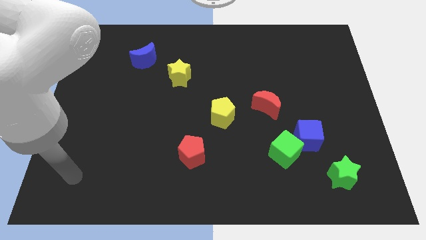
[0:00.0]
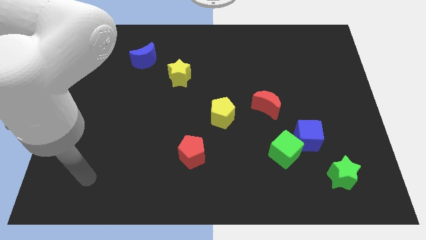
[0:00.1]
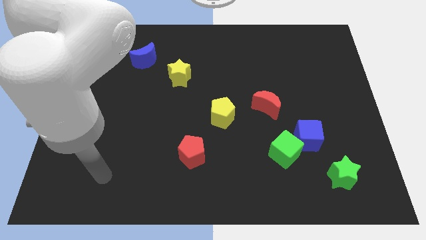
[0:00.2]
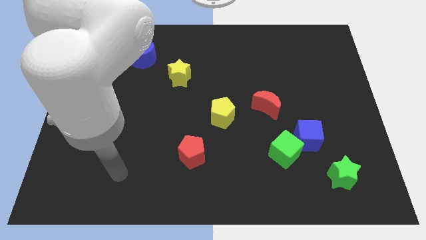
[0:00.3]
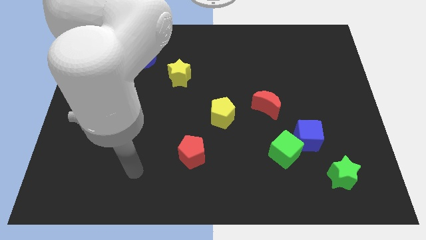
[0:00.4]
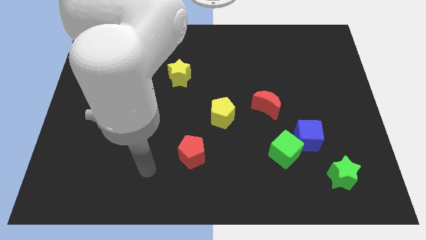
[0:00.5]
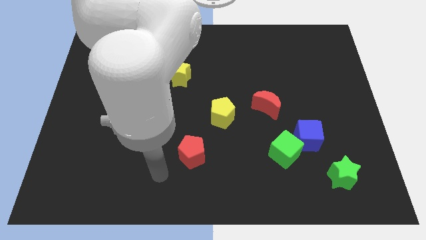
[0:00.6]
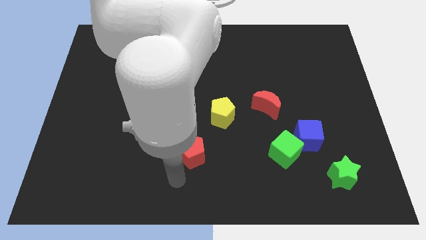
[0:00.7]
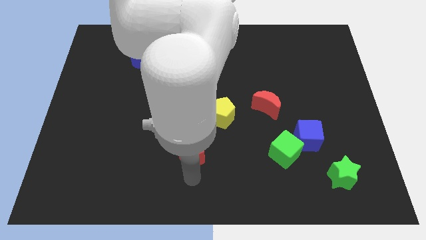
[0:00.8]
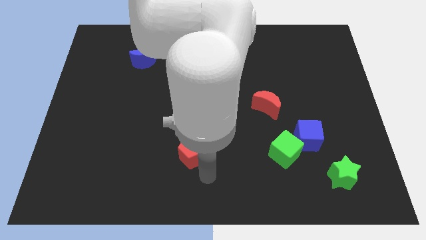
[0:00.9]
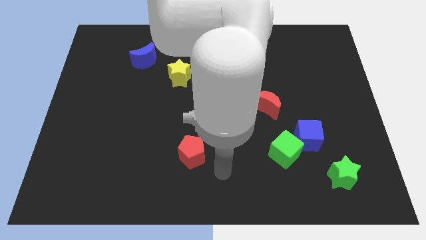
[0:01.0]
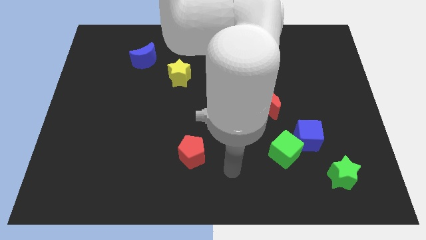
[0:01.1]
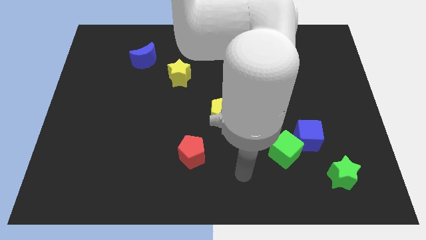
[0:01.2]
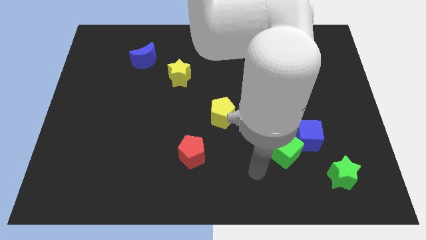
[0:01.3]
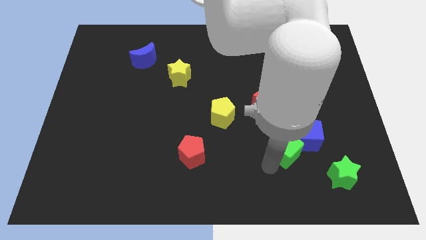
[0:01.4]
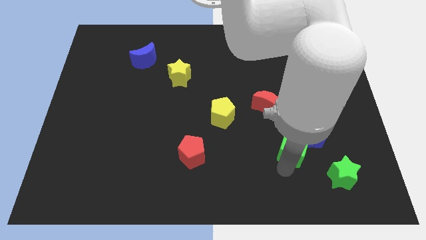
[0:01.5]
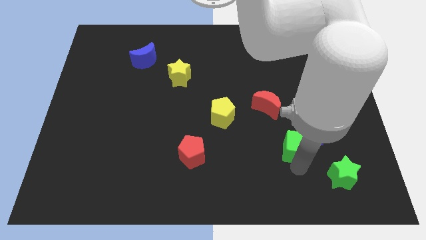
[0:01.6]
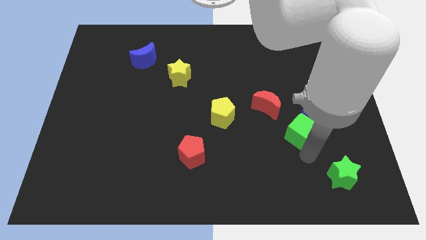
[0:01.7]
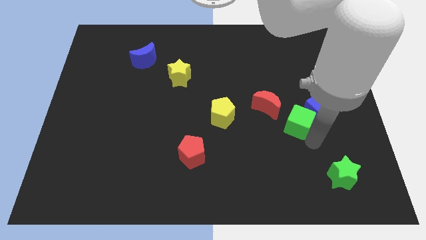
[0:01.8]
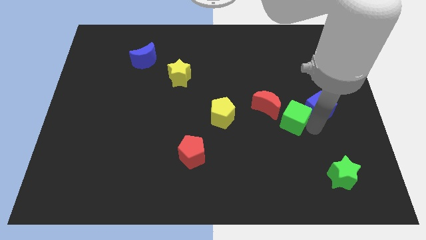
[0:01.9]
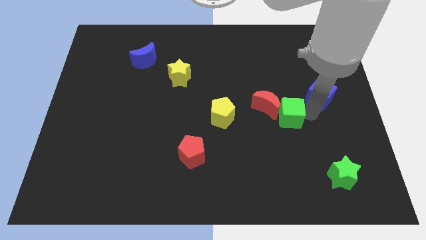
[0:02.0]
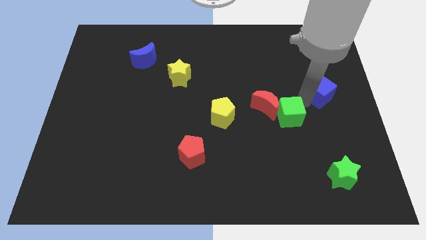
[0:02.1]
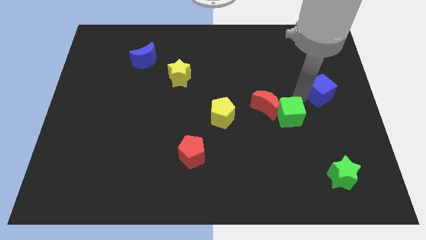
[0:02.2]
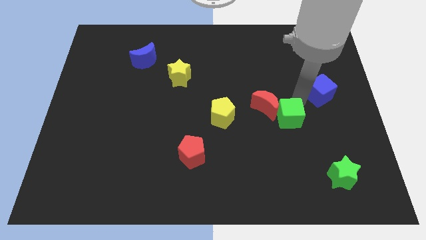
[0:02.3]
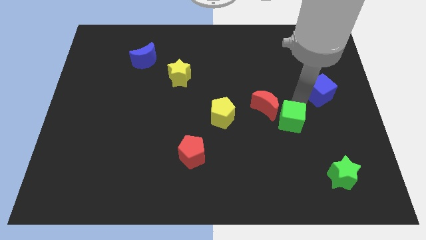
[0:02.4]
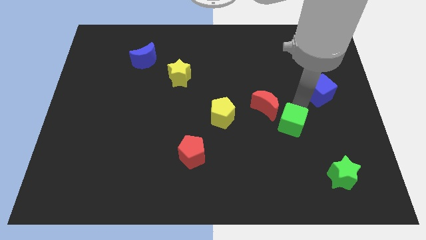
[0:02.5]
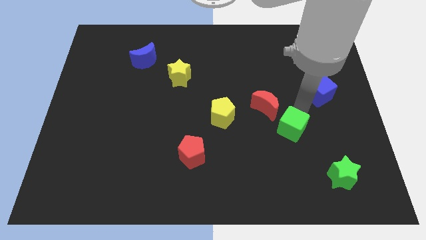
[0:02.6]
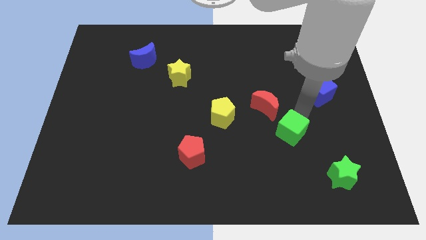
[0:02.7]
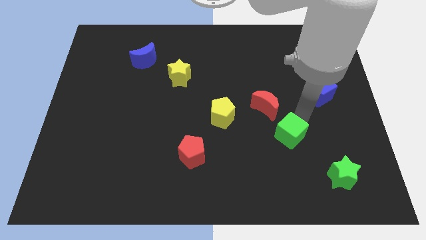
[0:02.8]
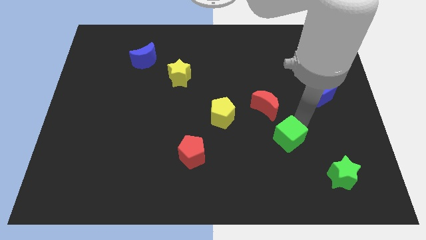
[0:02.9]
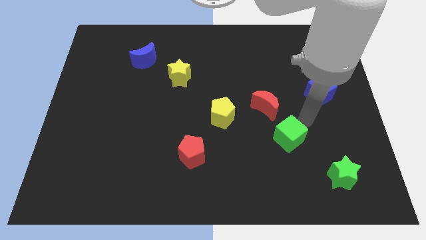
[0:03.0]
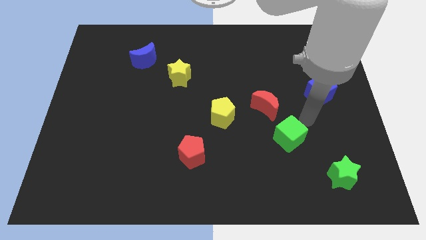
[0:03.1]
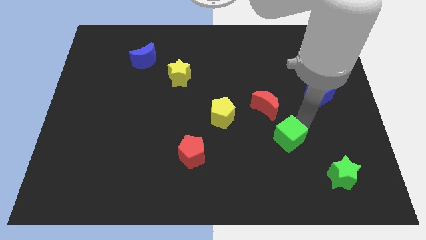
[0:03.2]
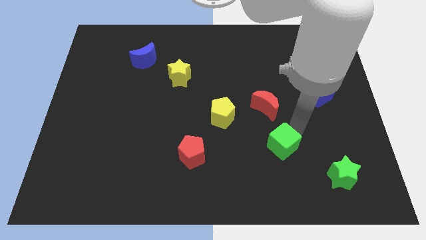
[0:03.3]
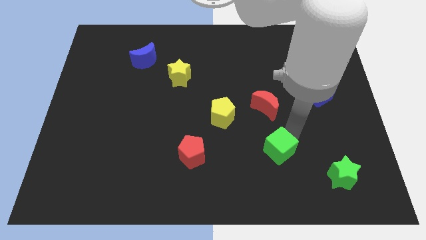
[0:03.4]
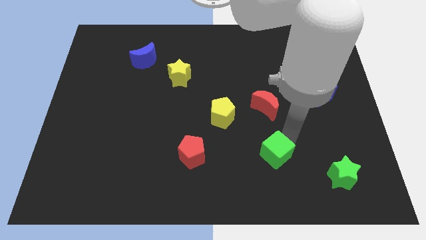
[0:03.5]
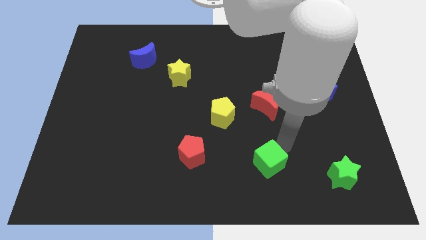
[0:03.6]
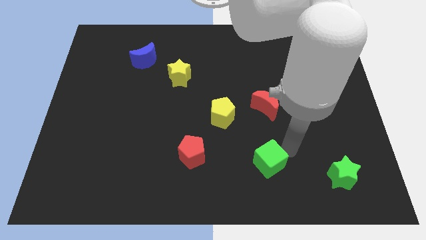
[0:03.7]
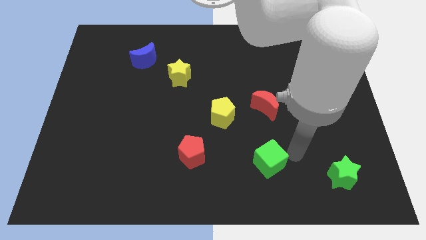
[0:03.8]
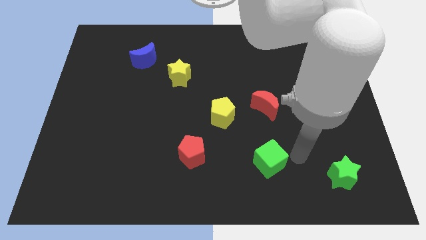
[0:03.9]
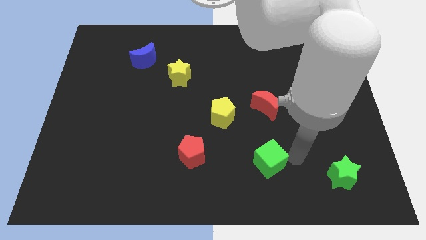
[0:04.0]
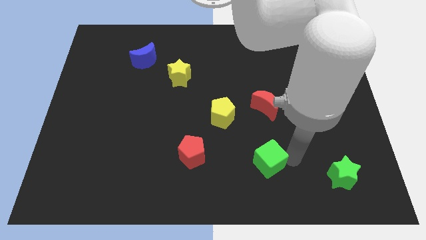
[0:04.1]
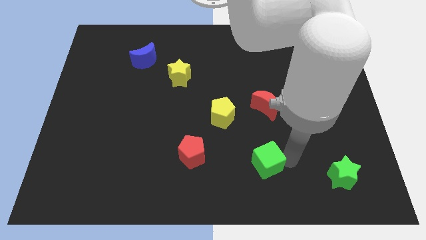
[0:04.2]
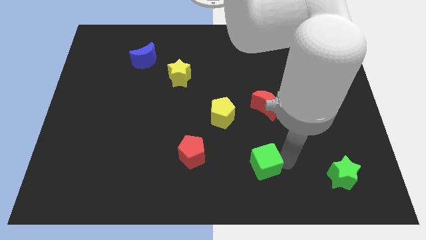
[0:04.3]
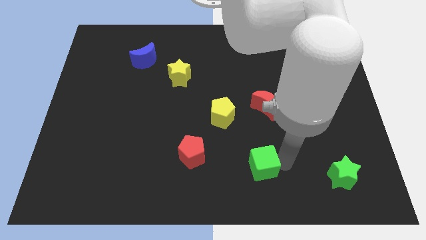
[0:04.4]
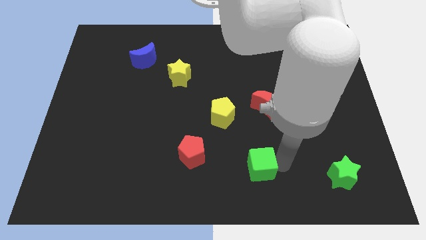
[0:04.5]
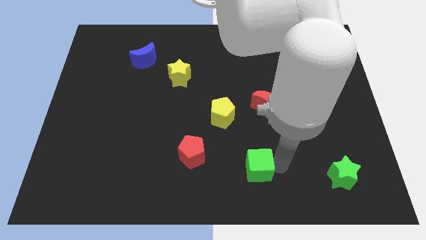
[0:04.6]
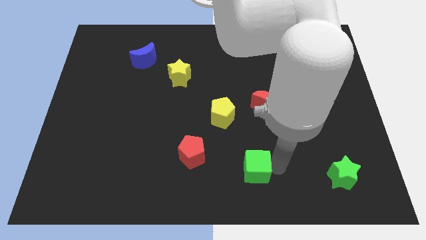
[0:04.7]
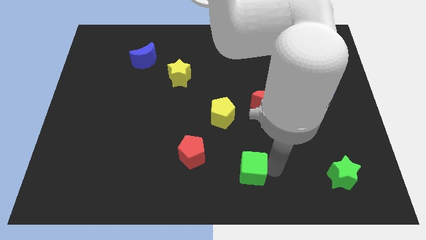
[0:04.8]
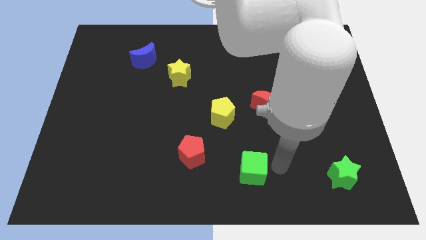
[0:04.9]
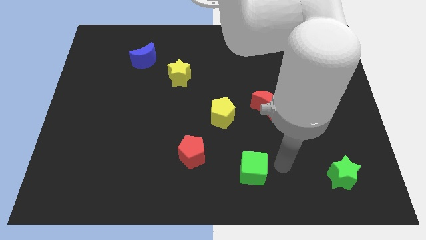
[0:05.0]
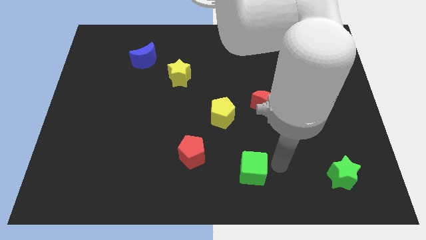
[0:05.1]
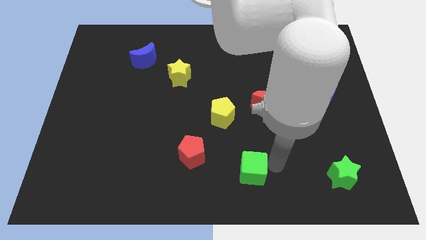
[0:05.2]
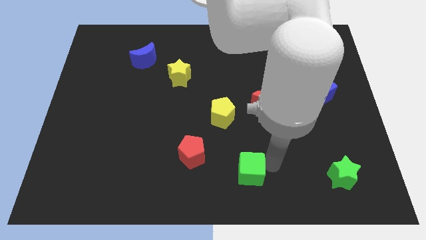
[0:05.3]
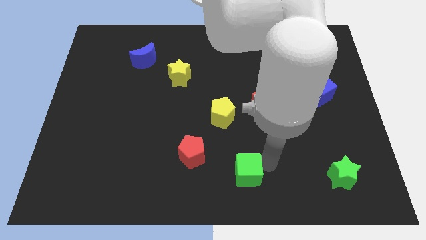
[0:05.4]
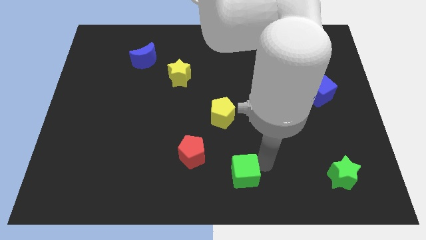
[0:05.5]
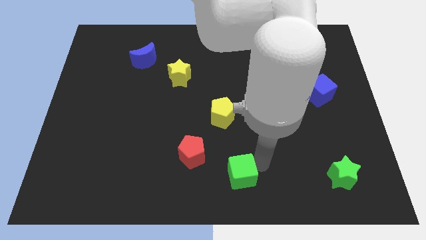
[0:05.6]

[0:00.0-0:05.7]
slide the green cube to the bottom right side of the red pentagon

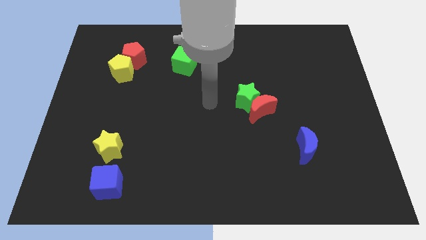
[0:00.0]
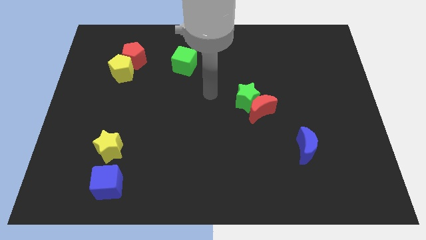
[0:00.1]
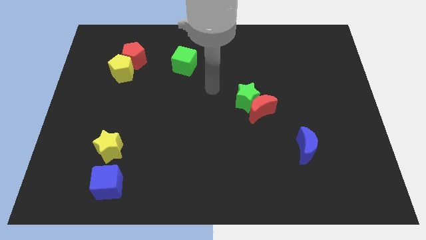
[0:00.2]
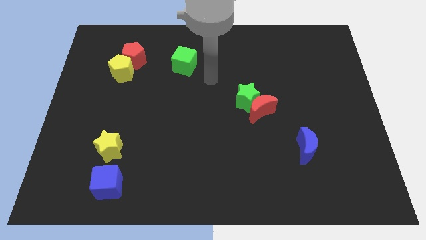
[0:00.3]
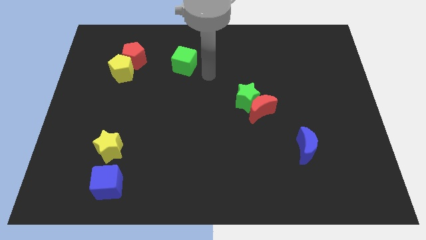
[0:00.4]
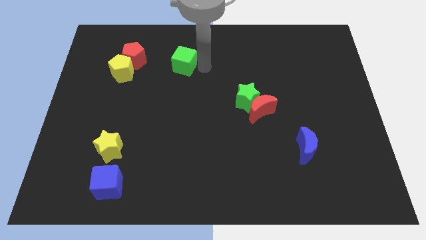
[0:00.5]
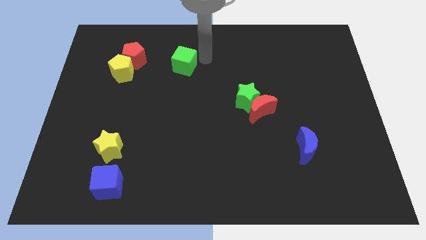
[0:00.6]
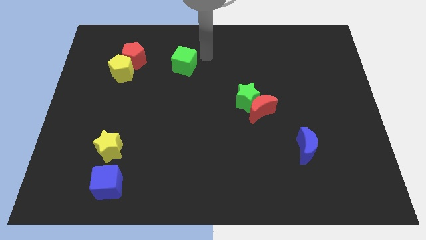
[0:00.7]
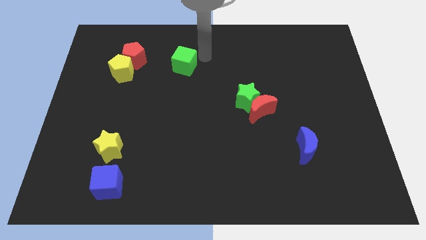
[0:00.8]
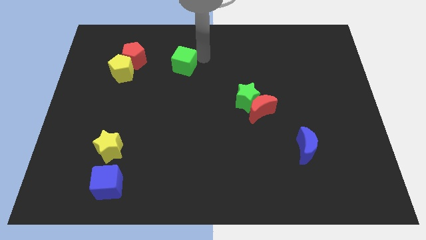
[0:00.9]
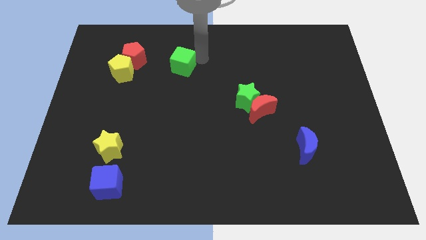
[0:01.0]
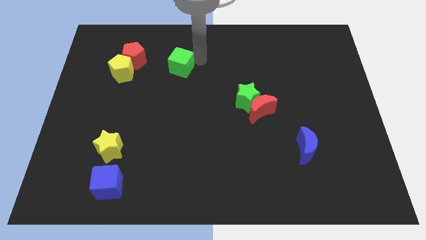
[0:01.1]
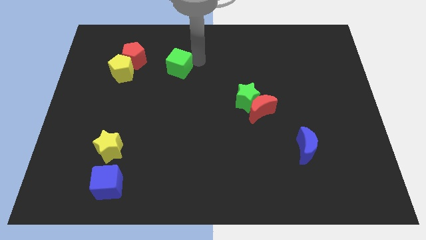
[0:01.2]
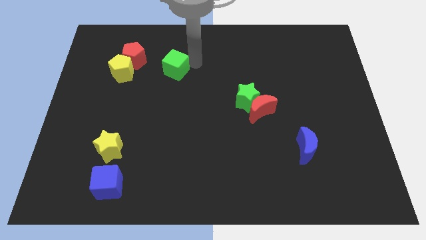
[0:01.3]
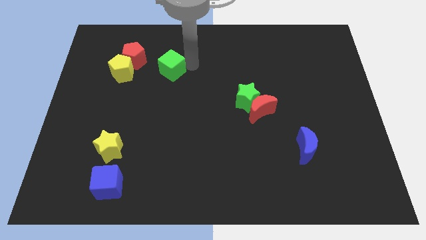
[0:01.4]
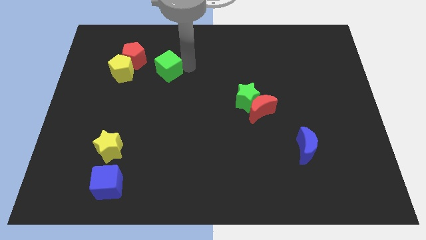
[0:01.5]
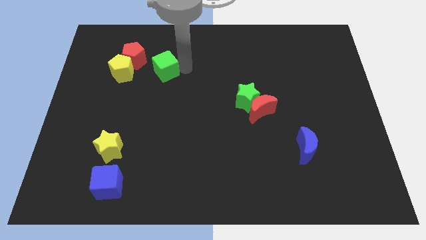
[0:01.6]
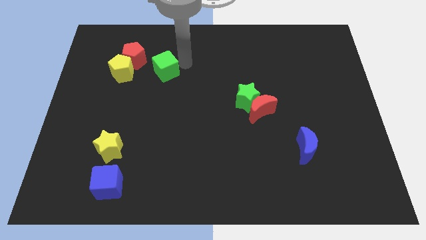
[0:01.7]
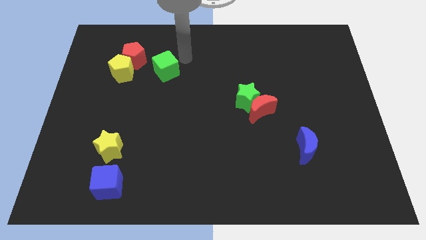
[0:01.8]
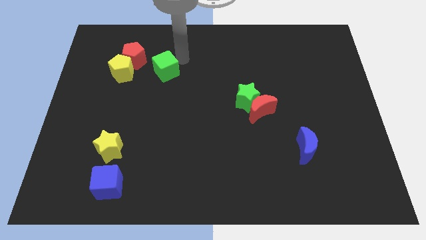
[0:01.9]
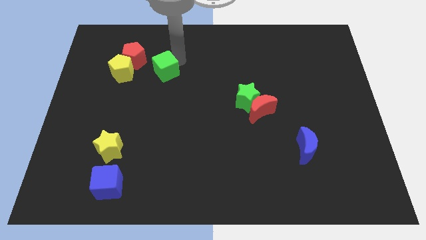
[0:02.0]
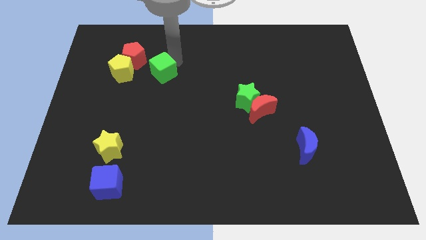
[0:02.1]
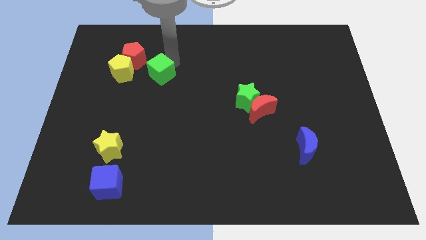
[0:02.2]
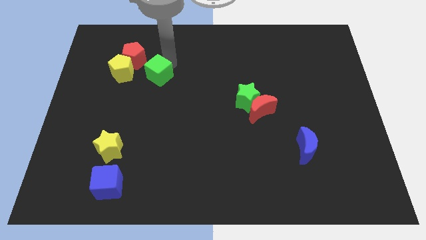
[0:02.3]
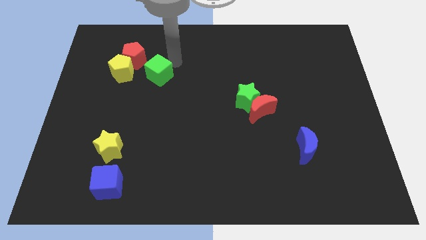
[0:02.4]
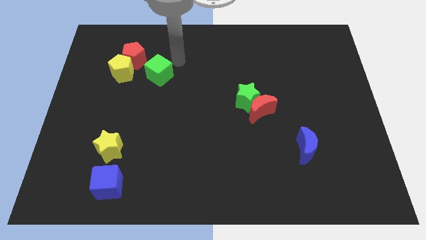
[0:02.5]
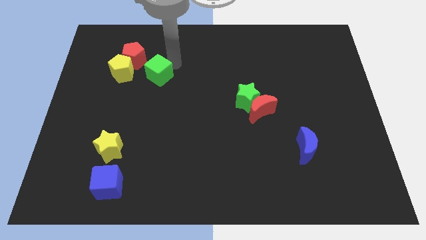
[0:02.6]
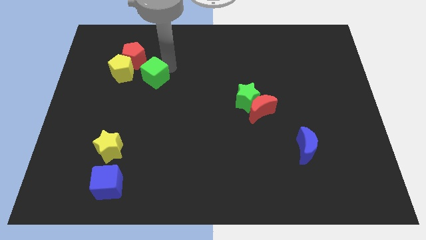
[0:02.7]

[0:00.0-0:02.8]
slide the green cube diagonally down and to the right of the yellow pentagon
